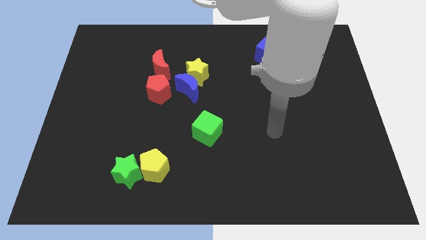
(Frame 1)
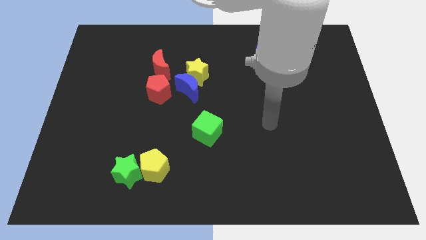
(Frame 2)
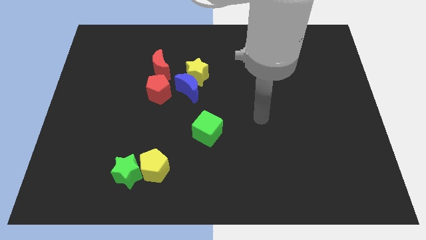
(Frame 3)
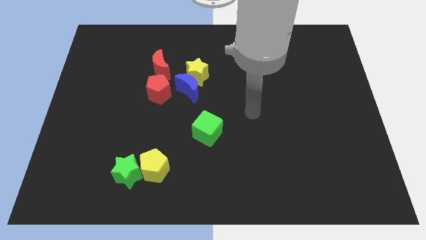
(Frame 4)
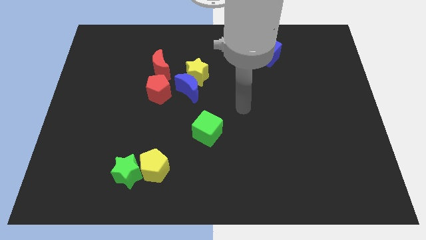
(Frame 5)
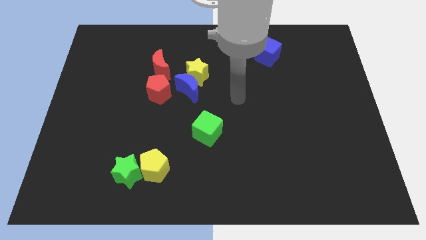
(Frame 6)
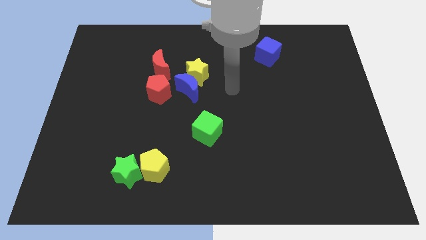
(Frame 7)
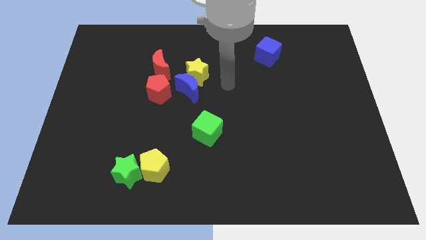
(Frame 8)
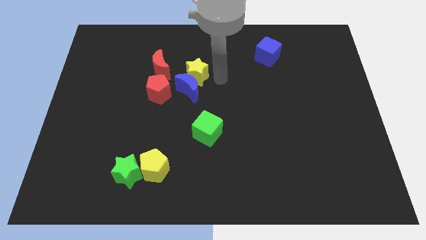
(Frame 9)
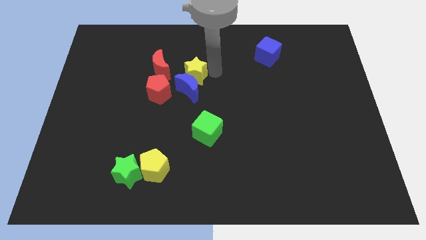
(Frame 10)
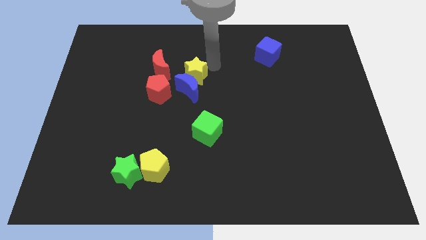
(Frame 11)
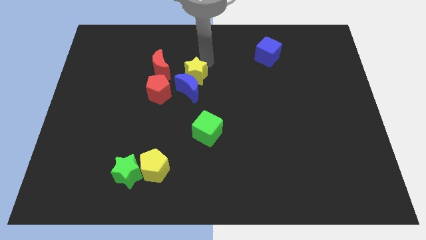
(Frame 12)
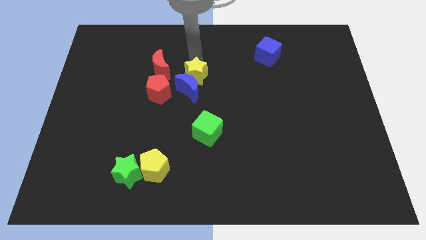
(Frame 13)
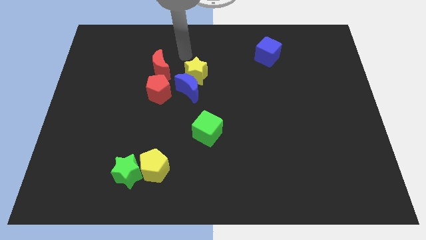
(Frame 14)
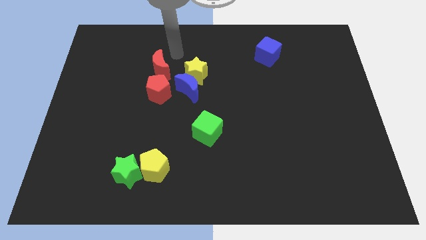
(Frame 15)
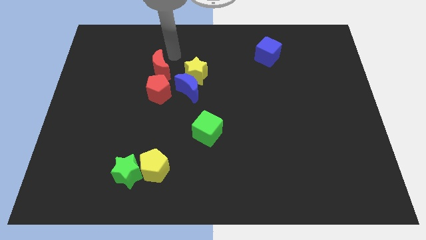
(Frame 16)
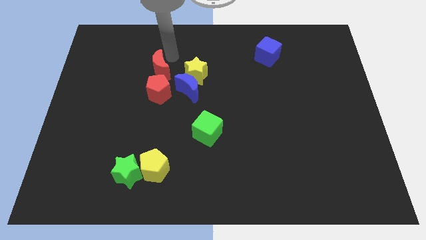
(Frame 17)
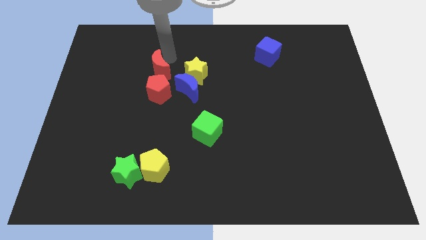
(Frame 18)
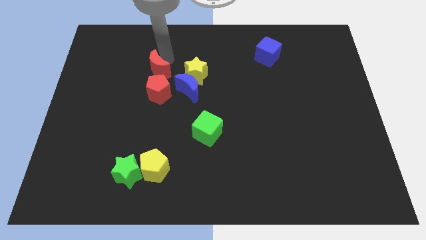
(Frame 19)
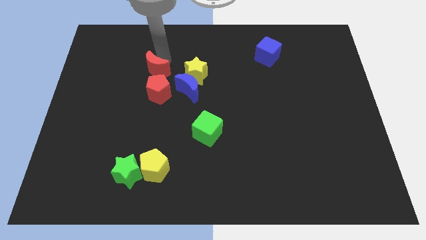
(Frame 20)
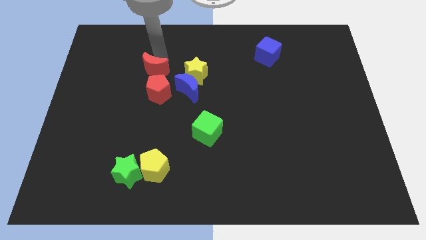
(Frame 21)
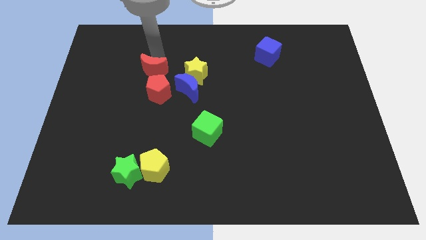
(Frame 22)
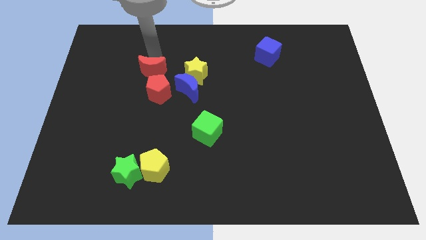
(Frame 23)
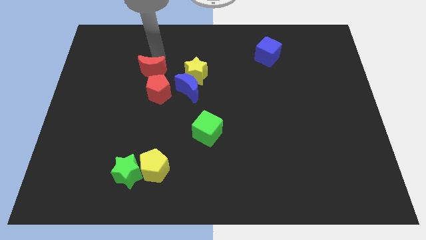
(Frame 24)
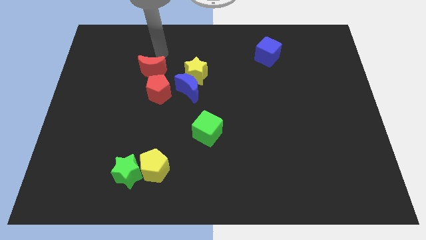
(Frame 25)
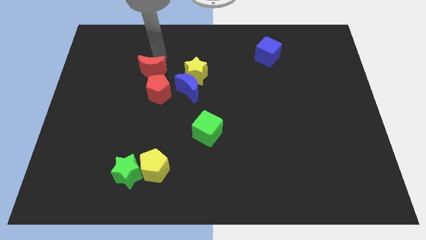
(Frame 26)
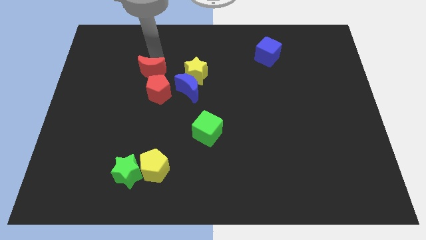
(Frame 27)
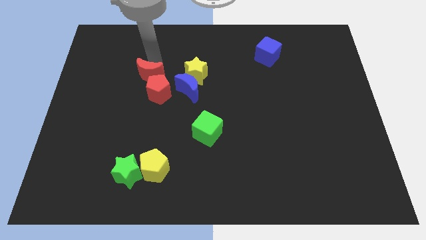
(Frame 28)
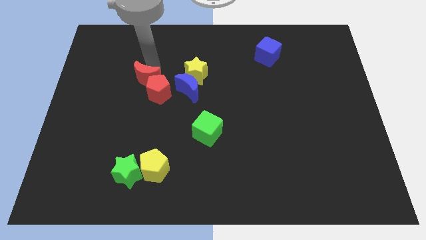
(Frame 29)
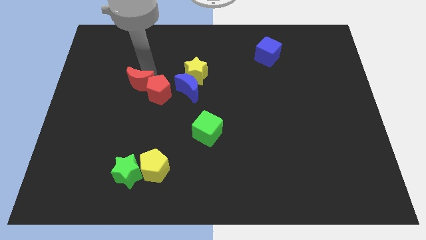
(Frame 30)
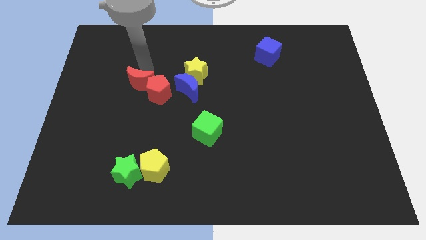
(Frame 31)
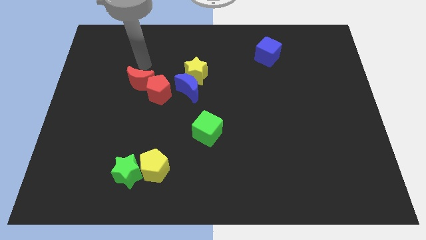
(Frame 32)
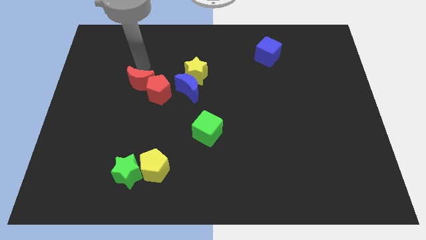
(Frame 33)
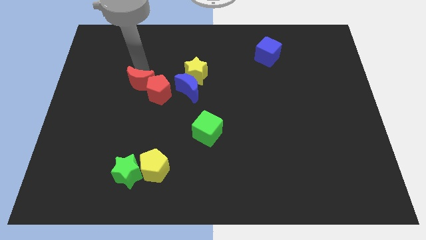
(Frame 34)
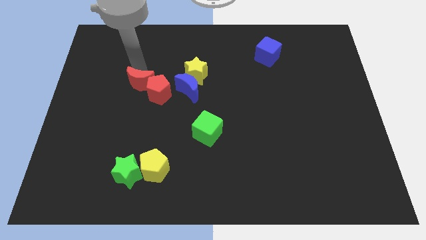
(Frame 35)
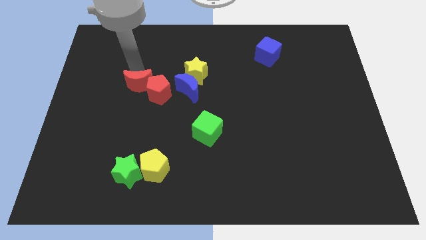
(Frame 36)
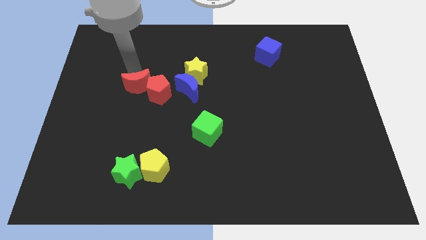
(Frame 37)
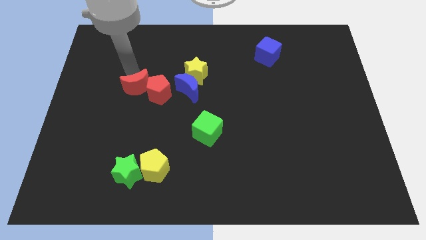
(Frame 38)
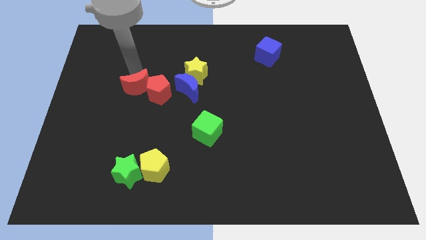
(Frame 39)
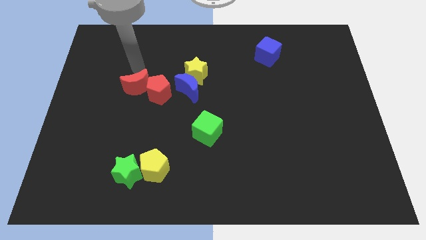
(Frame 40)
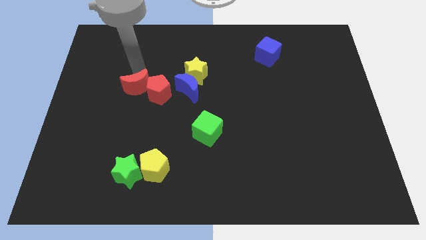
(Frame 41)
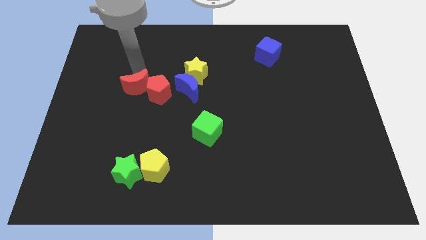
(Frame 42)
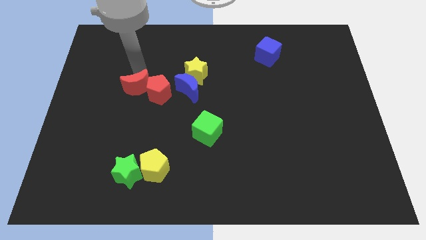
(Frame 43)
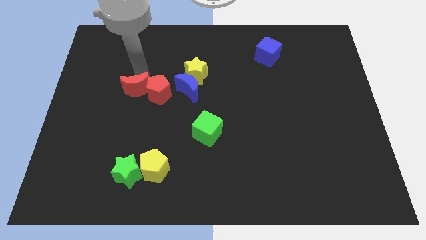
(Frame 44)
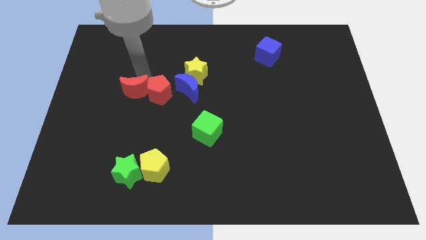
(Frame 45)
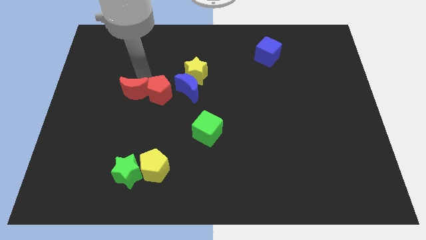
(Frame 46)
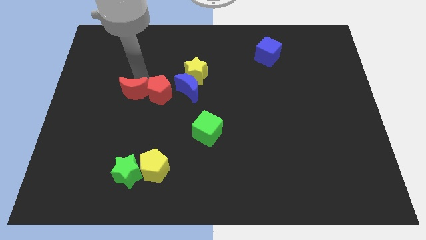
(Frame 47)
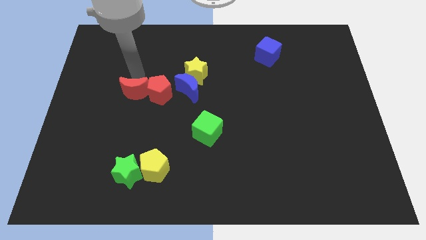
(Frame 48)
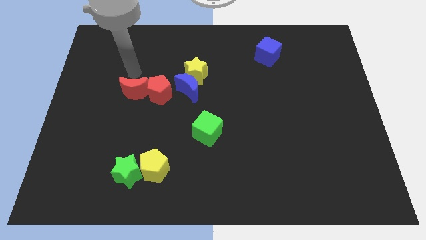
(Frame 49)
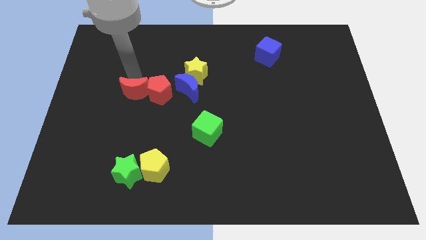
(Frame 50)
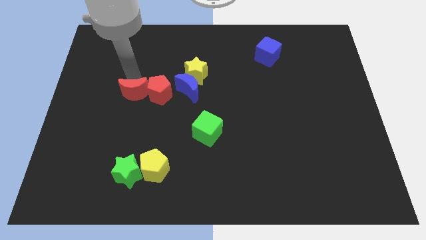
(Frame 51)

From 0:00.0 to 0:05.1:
push the red moon a bit downwards

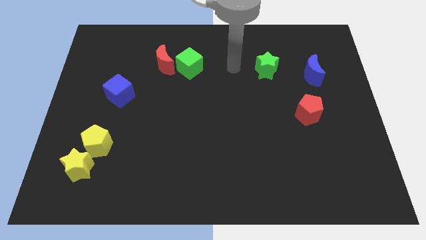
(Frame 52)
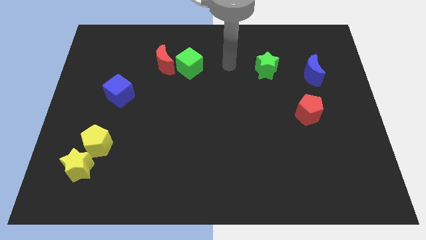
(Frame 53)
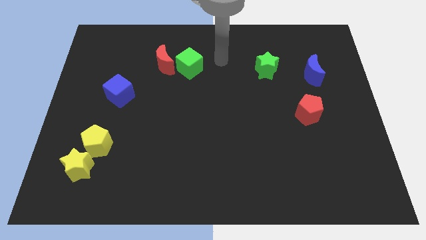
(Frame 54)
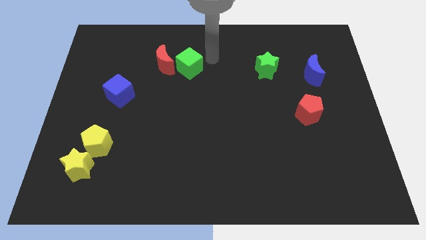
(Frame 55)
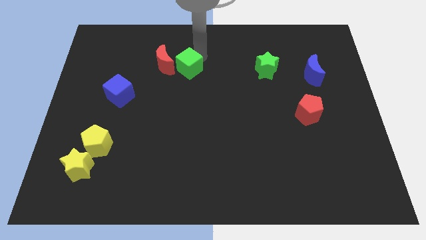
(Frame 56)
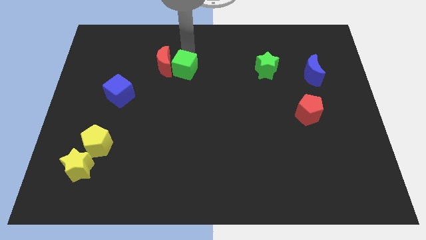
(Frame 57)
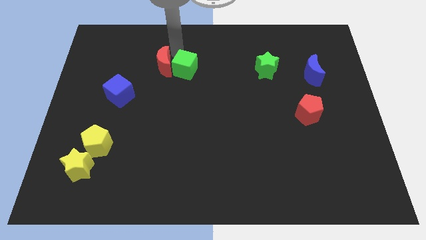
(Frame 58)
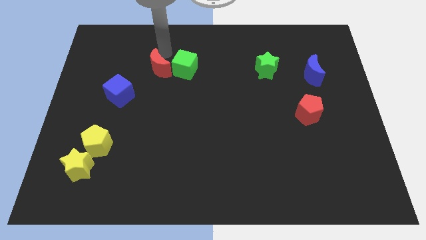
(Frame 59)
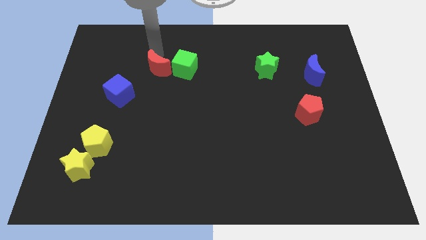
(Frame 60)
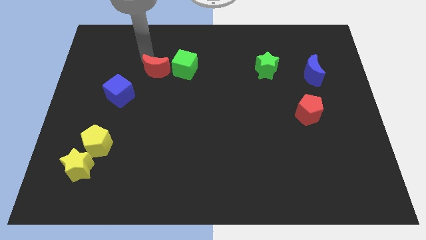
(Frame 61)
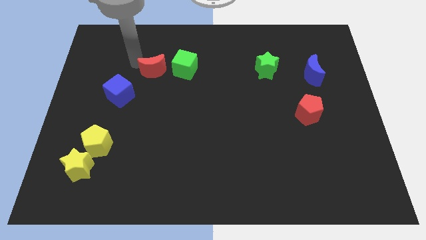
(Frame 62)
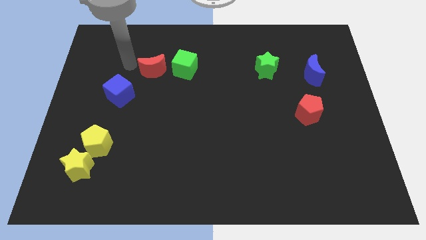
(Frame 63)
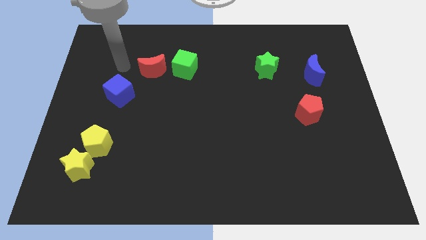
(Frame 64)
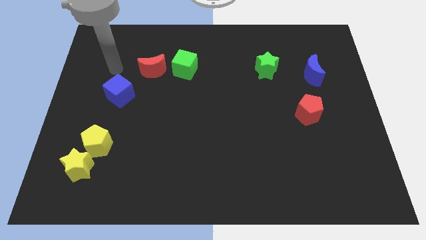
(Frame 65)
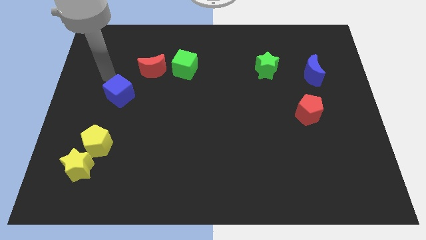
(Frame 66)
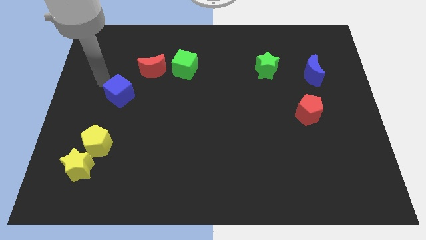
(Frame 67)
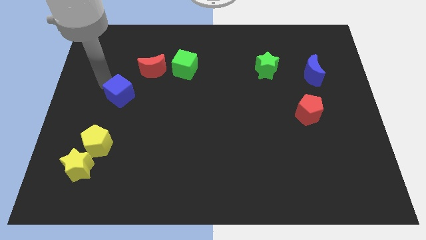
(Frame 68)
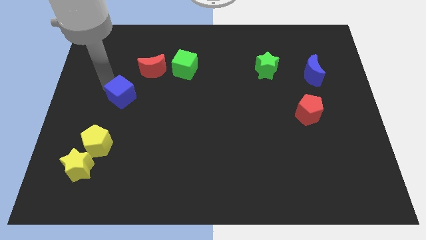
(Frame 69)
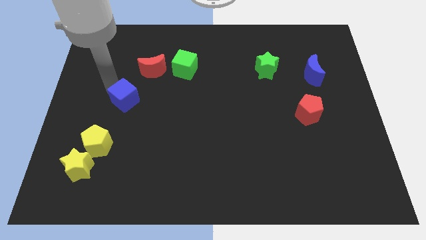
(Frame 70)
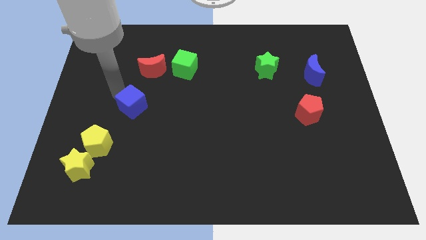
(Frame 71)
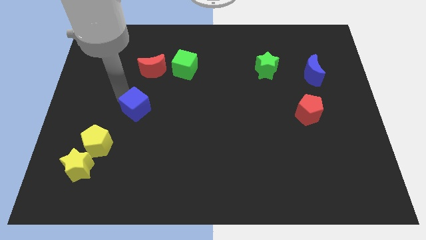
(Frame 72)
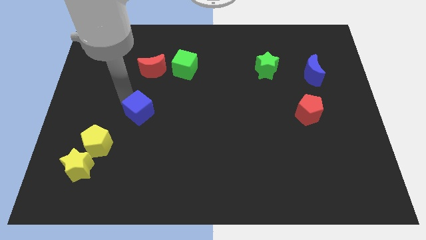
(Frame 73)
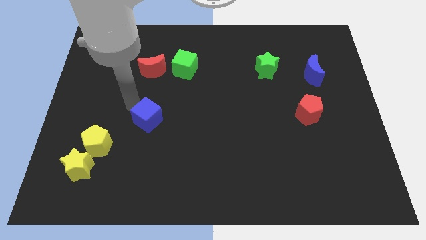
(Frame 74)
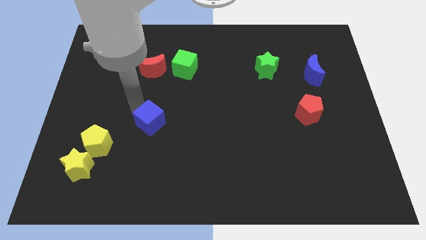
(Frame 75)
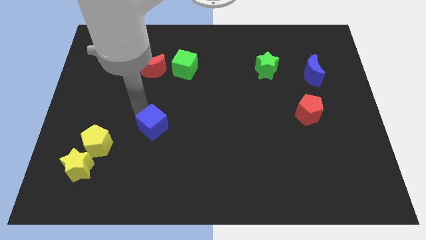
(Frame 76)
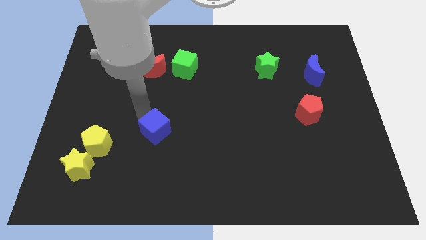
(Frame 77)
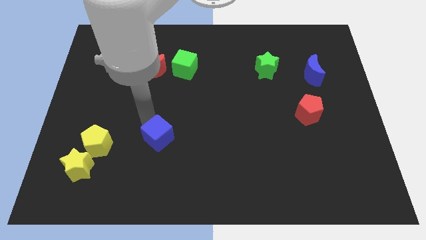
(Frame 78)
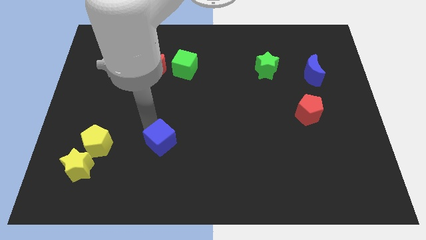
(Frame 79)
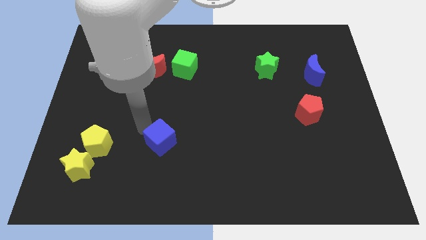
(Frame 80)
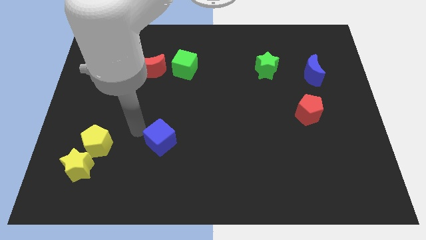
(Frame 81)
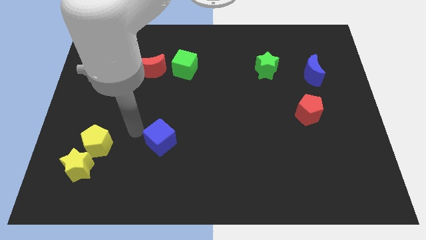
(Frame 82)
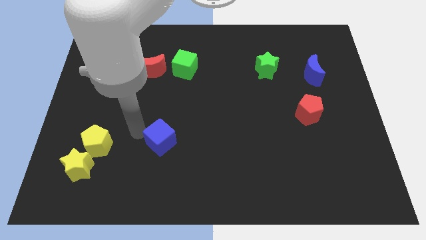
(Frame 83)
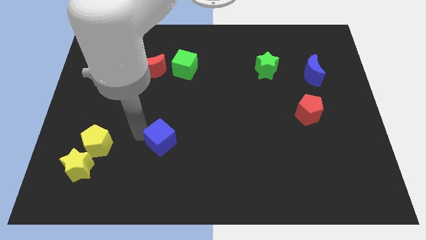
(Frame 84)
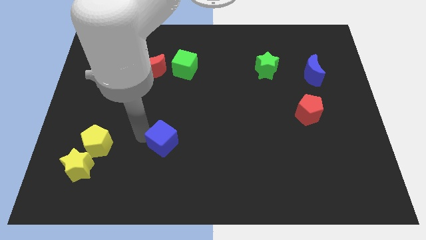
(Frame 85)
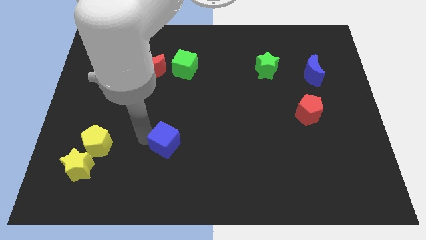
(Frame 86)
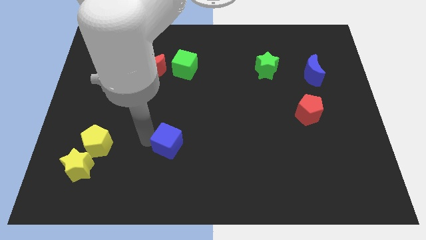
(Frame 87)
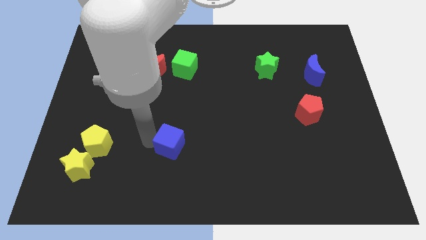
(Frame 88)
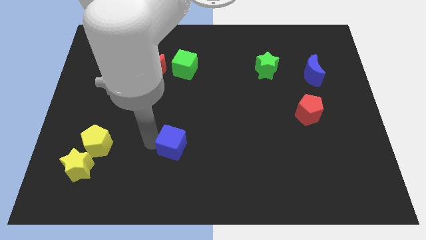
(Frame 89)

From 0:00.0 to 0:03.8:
move the blue cube diagonally downwards and to the right
